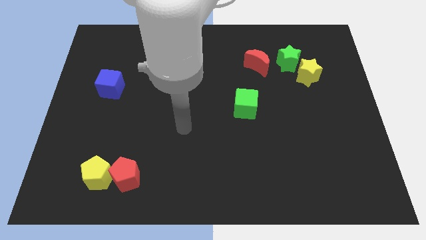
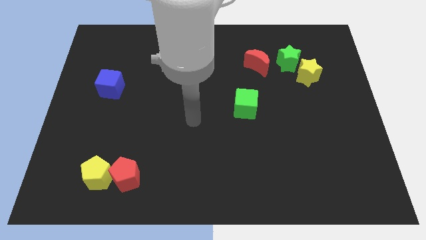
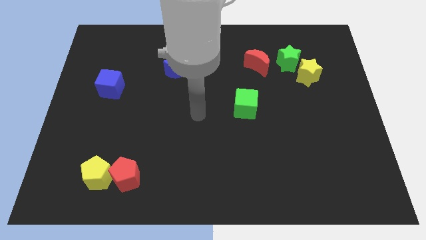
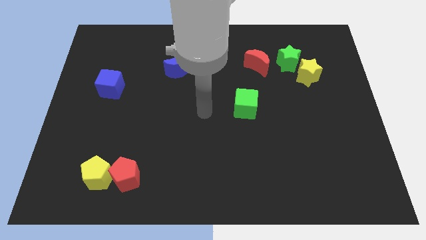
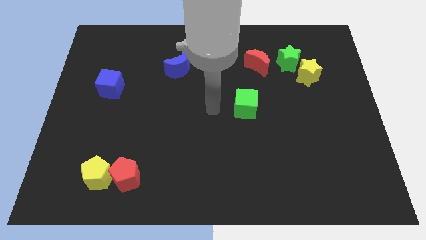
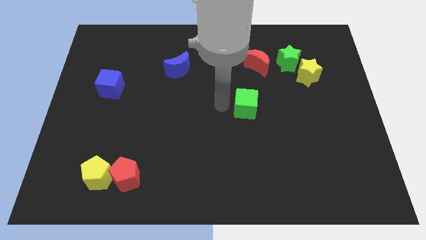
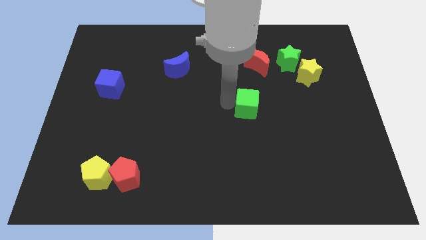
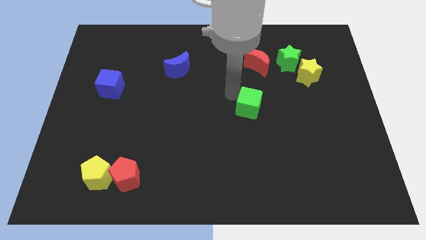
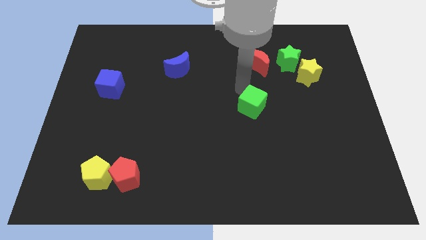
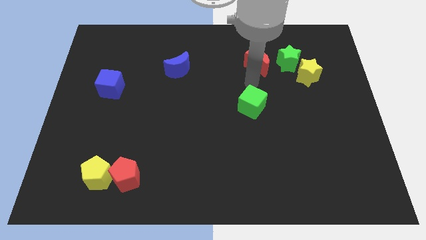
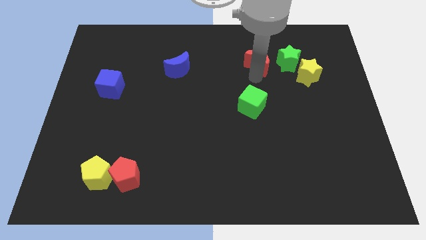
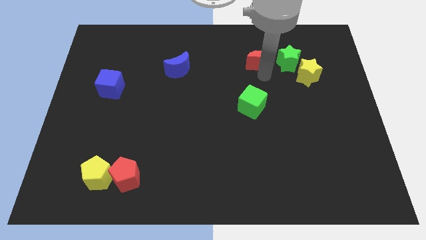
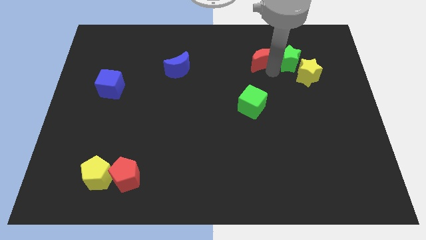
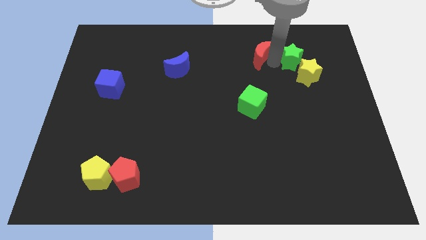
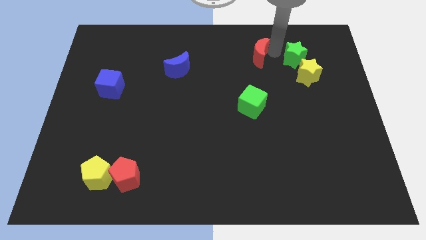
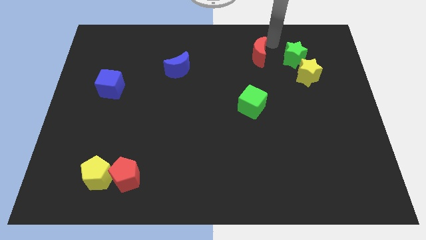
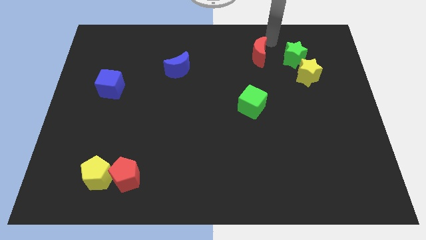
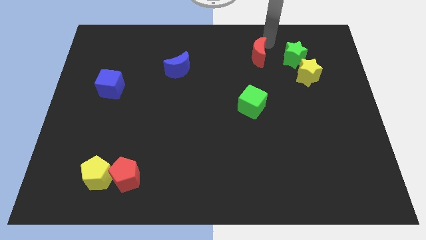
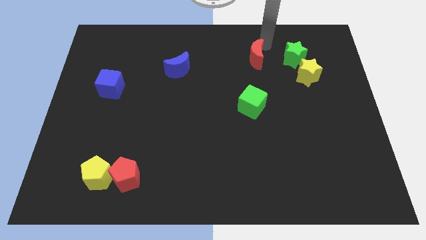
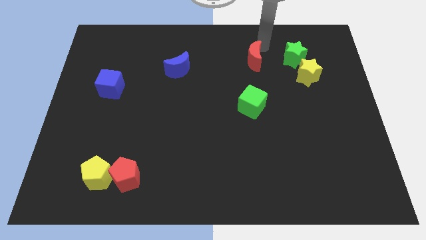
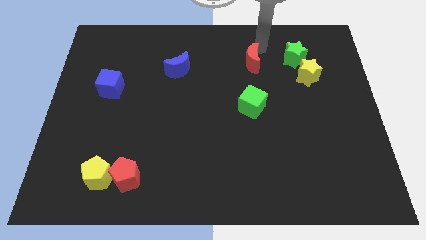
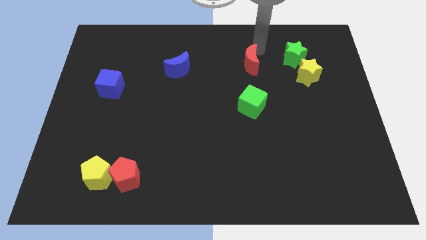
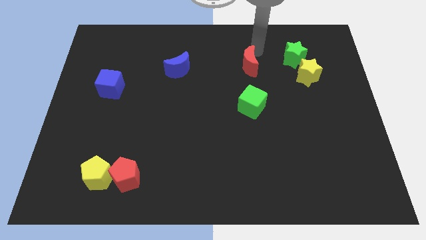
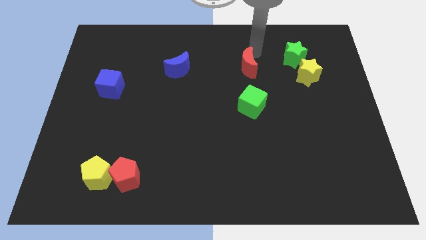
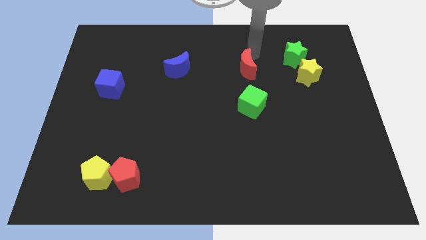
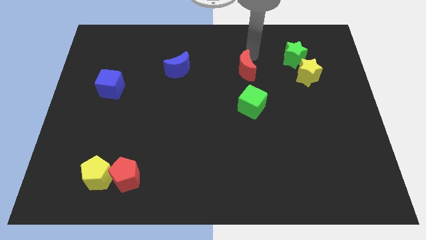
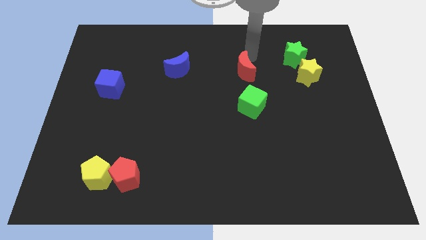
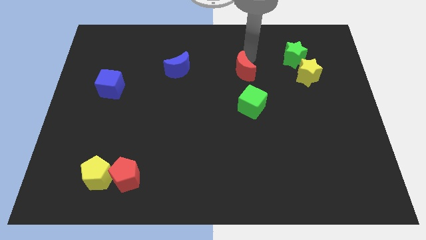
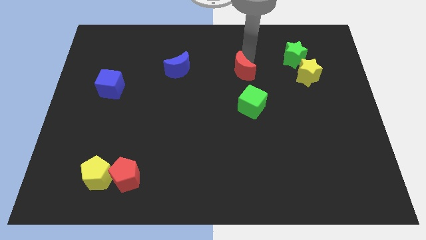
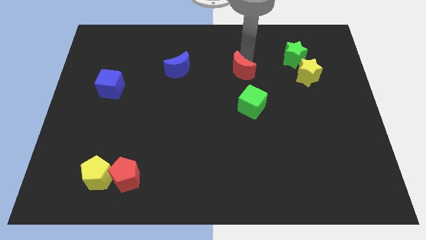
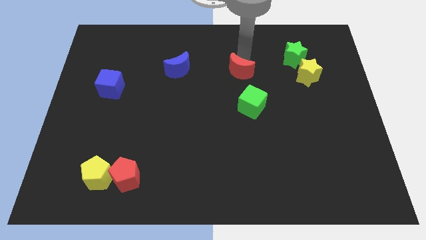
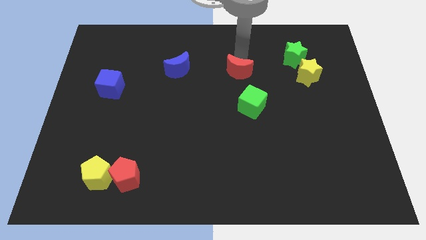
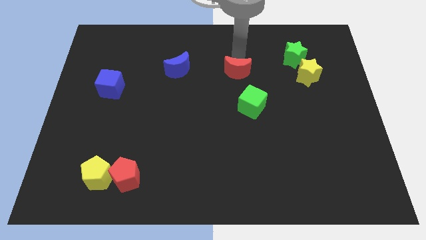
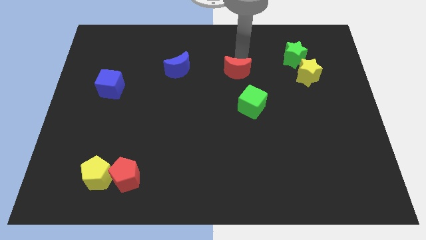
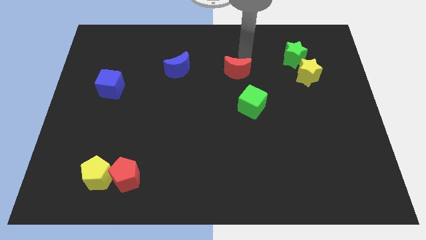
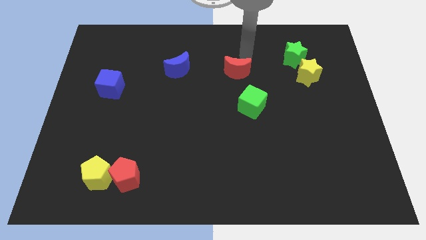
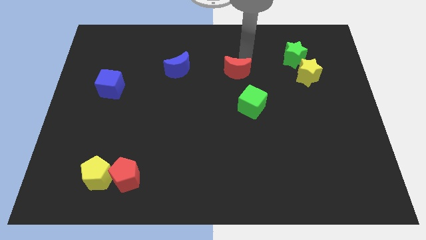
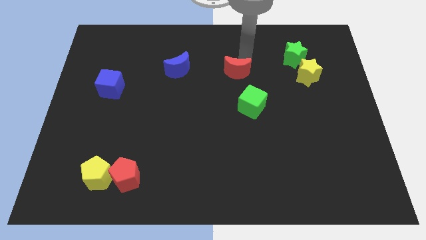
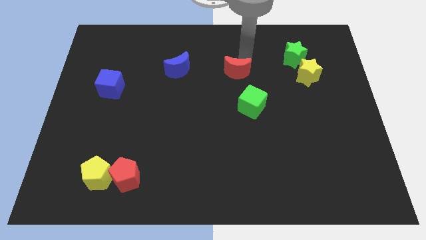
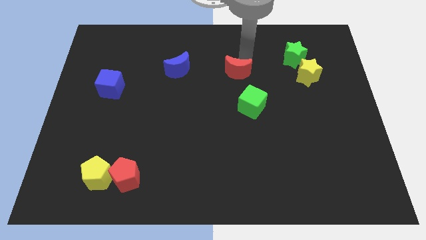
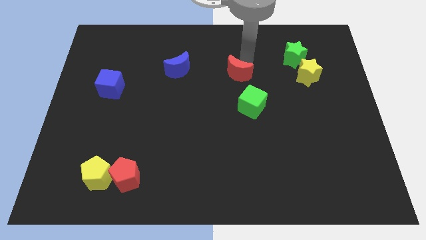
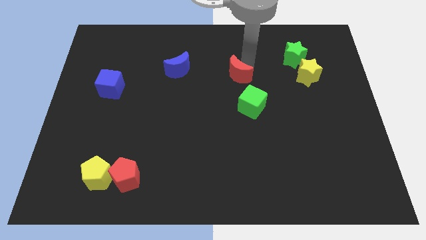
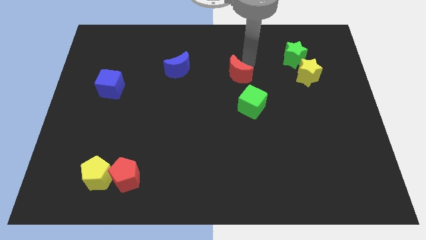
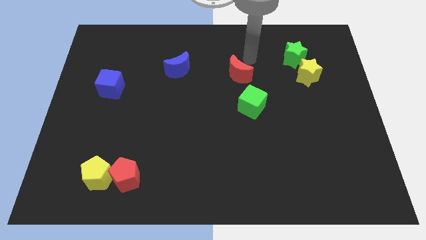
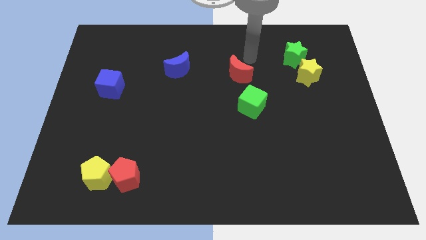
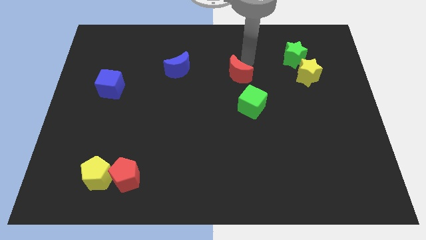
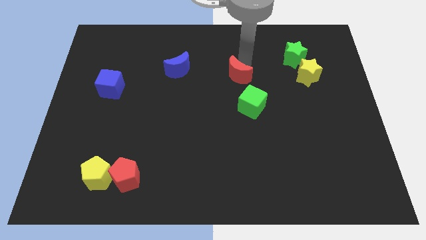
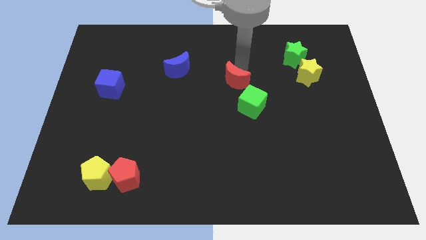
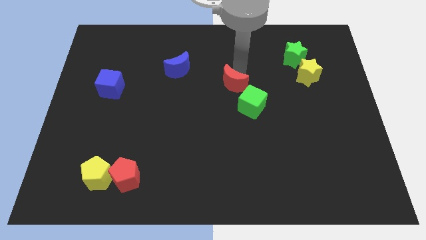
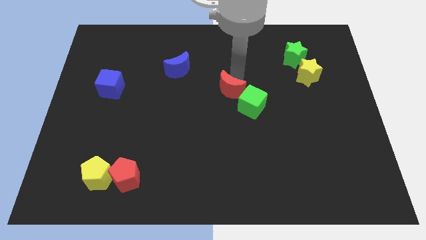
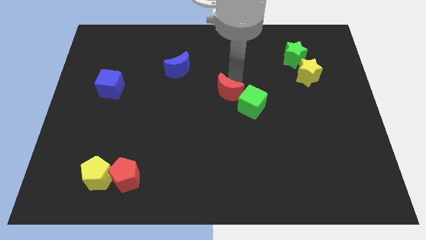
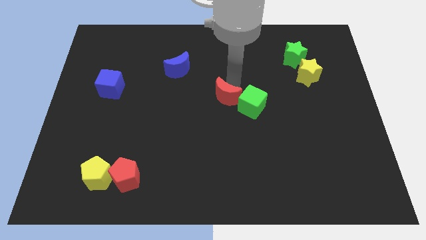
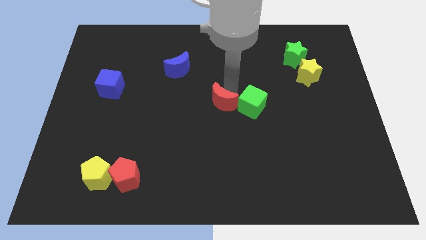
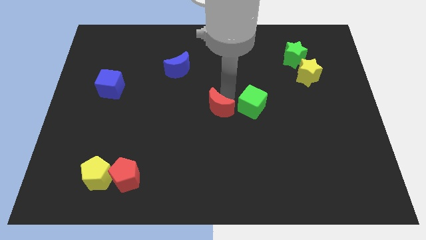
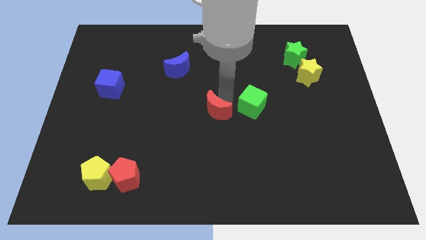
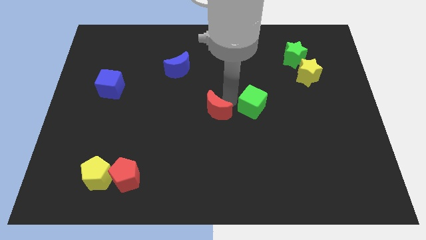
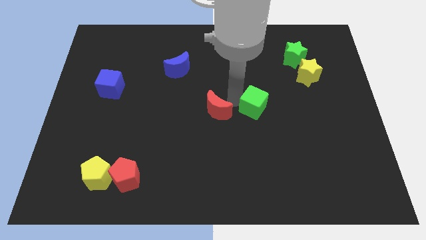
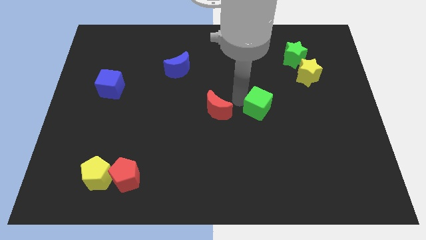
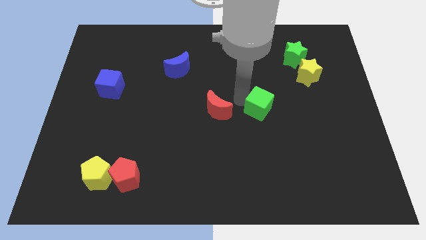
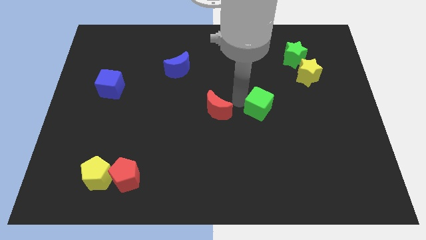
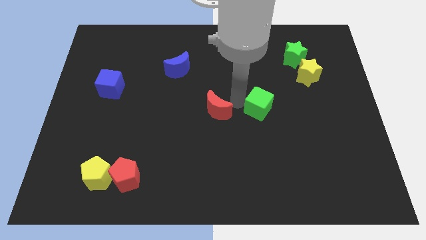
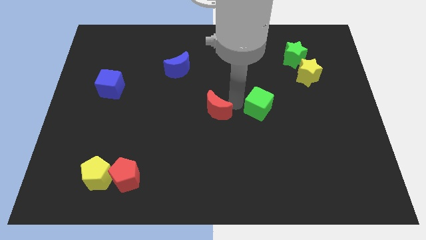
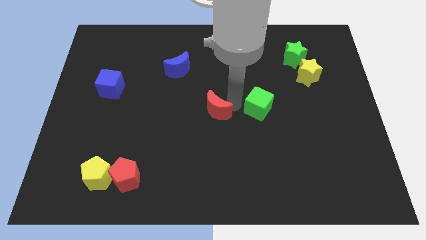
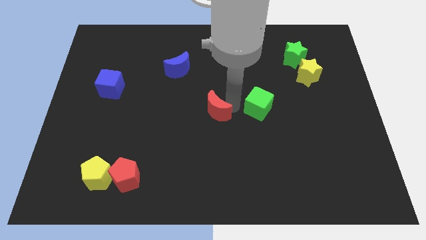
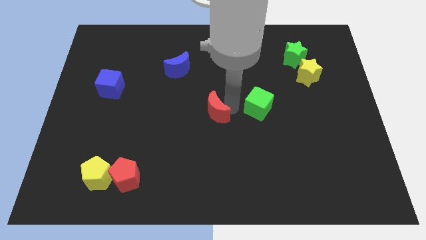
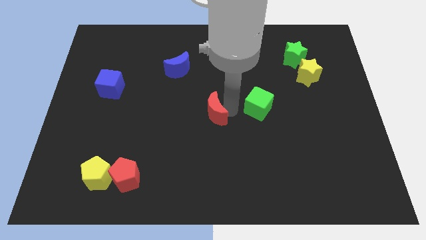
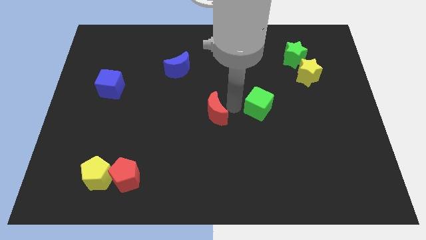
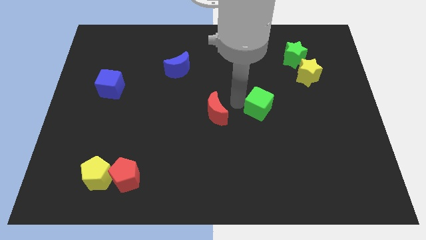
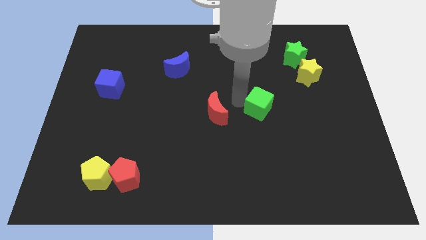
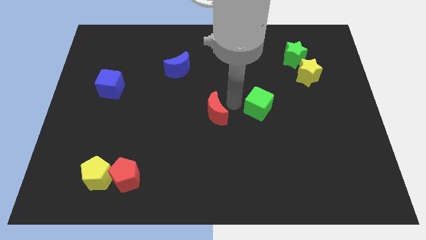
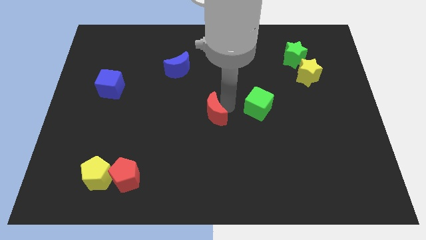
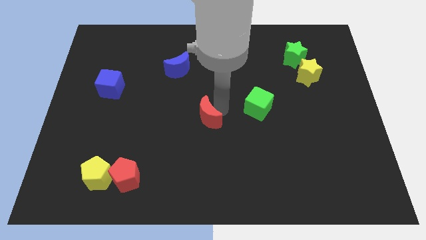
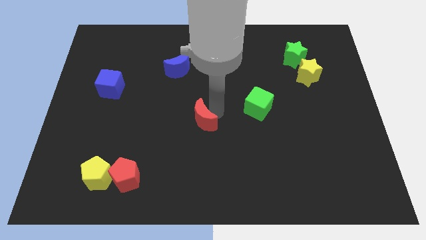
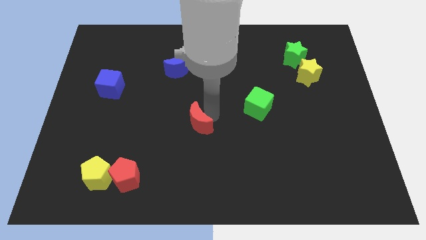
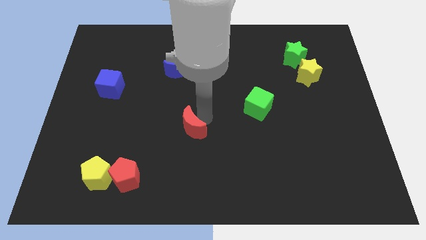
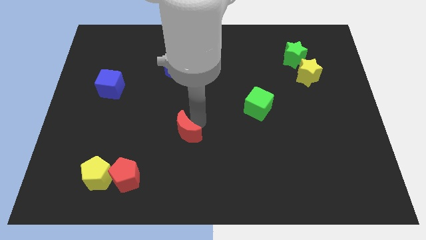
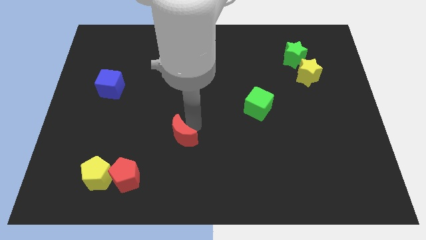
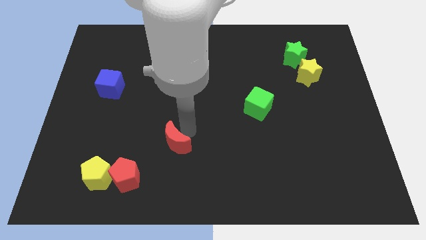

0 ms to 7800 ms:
put the red moon to the top right side of the red pentagon

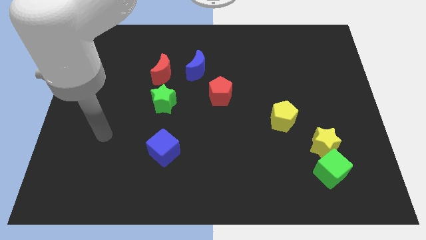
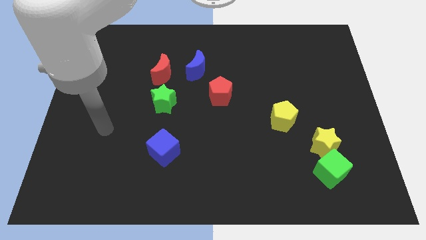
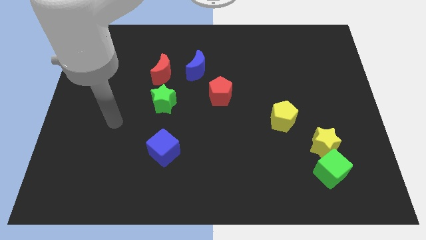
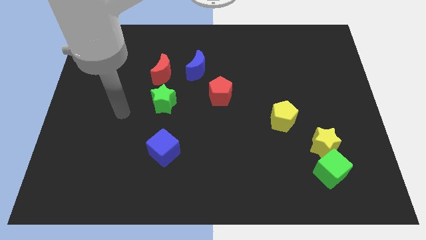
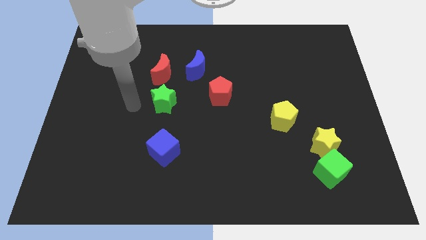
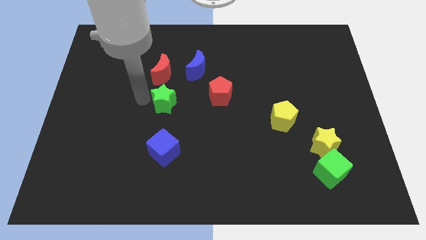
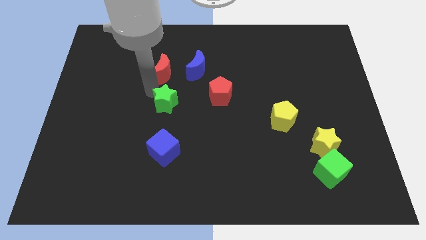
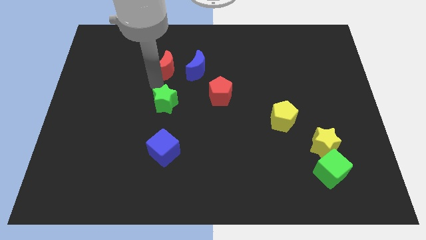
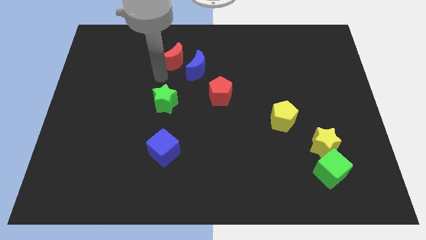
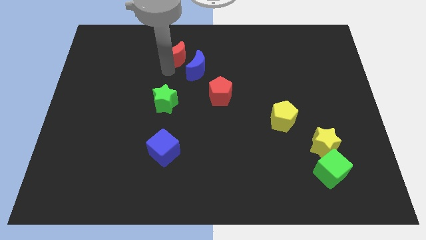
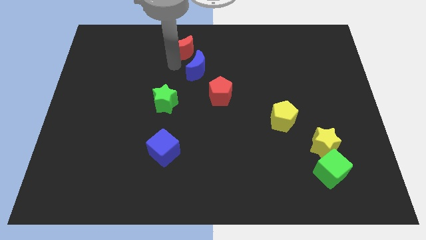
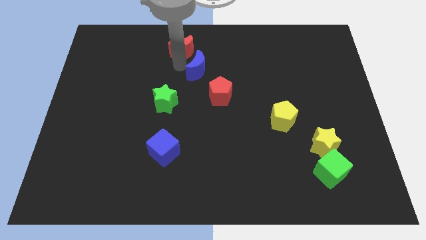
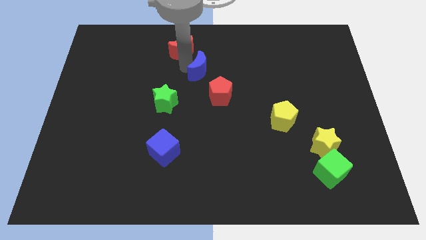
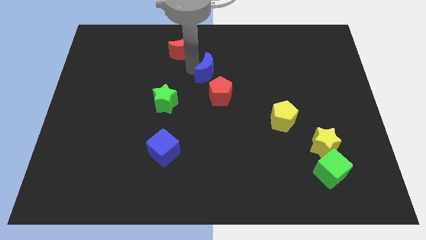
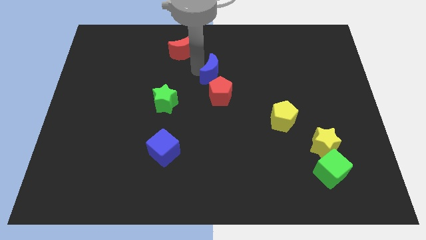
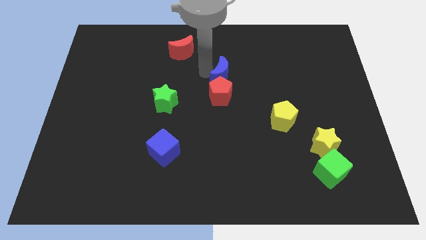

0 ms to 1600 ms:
put the blue moon to the top right side of the red pentagon
